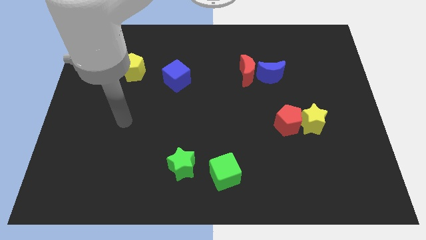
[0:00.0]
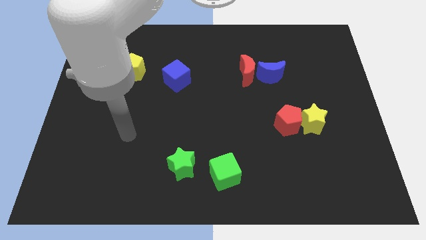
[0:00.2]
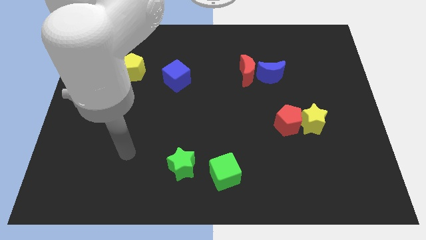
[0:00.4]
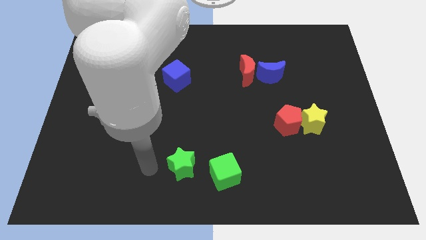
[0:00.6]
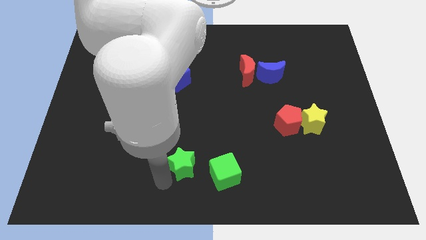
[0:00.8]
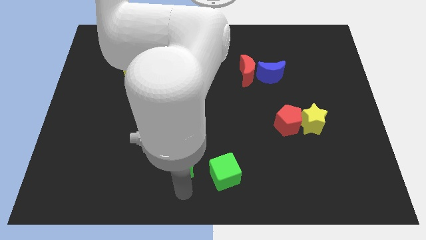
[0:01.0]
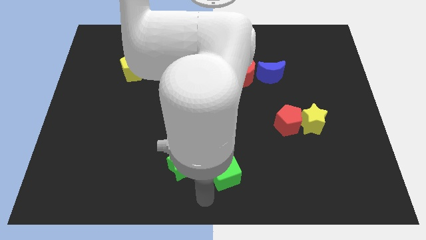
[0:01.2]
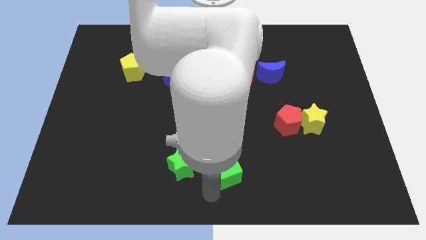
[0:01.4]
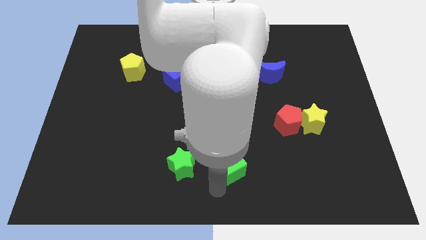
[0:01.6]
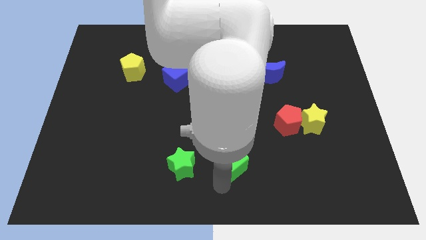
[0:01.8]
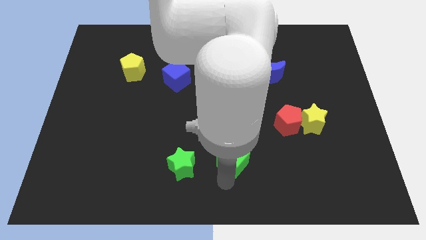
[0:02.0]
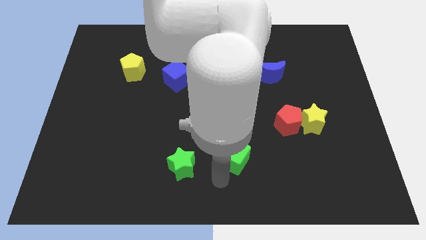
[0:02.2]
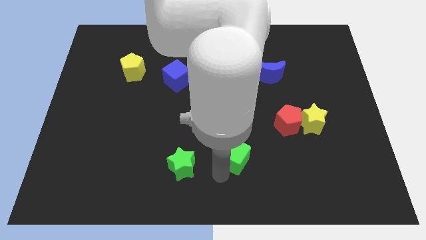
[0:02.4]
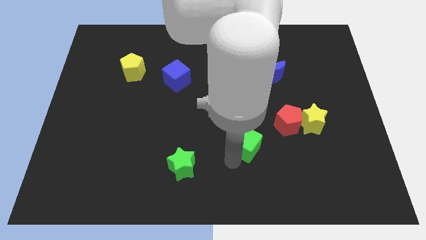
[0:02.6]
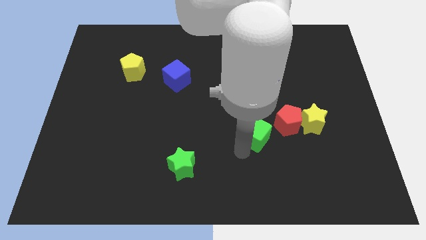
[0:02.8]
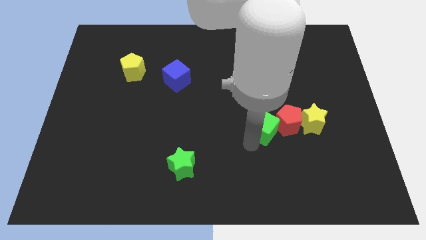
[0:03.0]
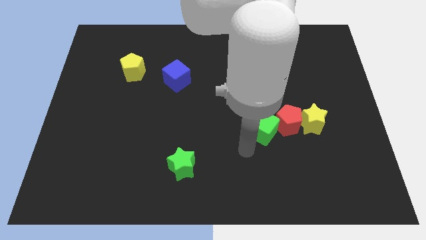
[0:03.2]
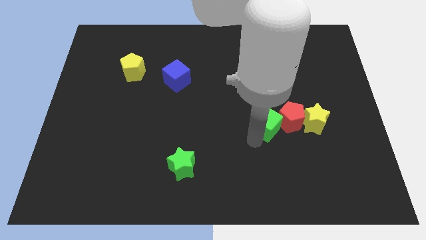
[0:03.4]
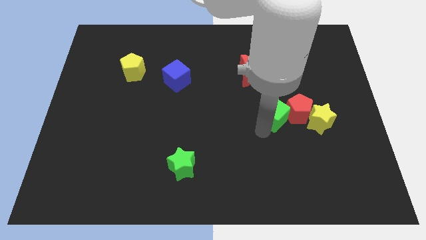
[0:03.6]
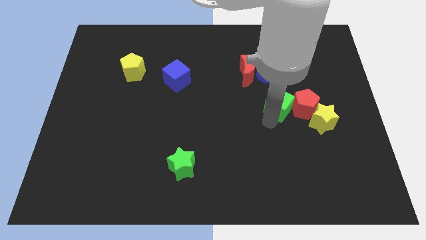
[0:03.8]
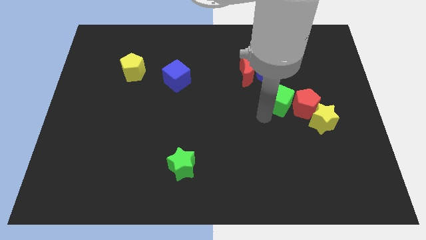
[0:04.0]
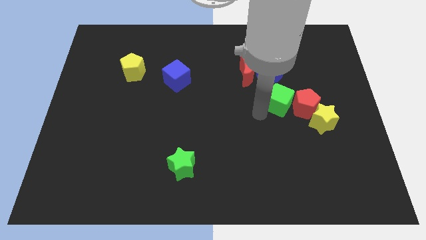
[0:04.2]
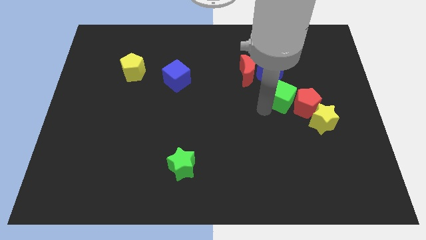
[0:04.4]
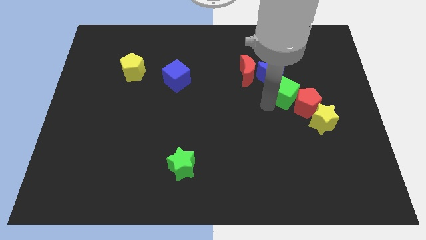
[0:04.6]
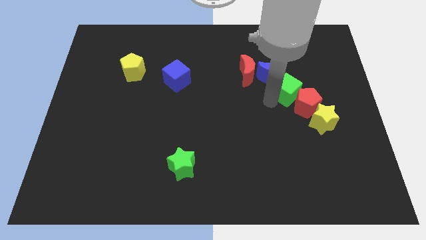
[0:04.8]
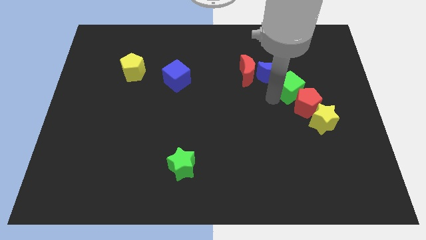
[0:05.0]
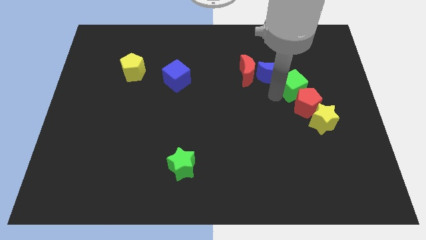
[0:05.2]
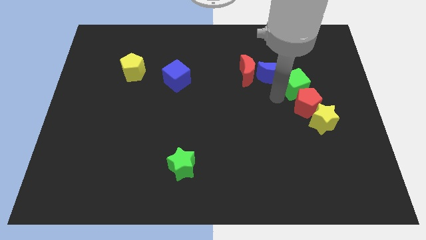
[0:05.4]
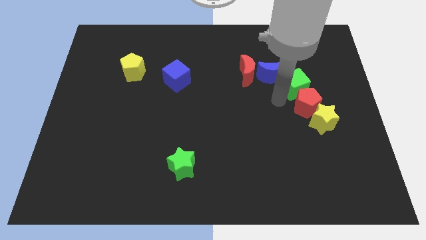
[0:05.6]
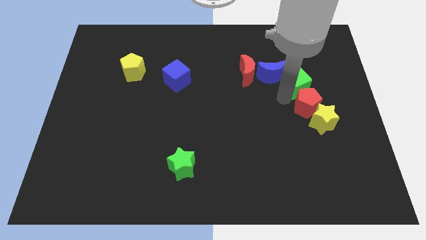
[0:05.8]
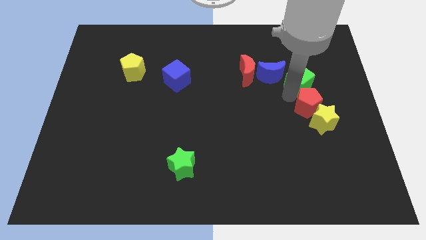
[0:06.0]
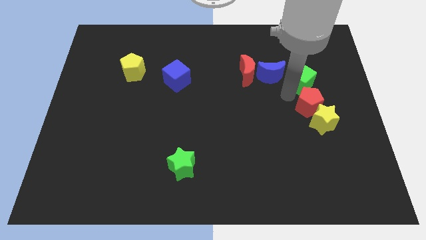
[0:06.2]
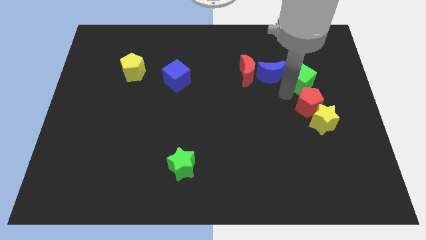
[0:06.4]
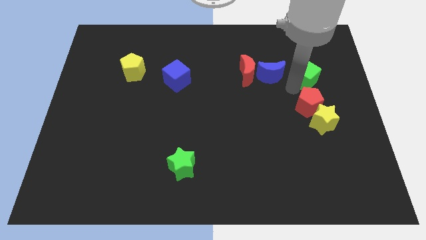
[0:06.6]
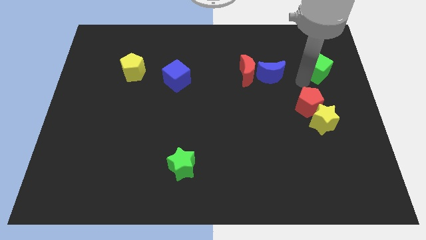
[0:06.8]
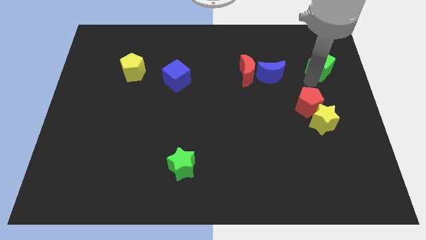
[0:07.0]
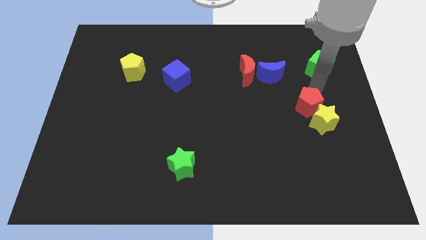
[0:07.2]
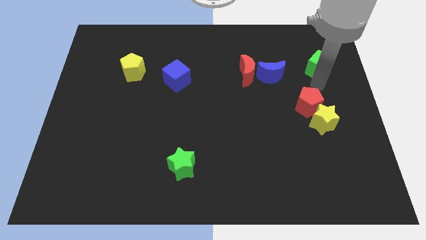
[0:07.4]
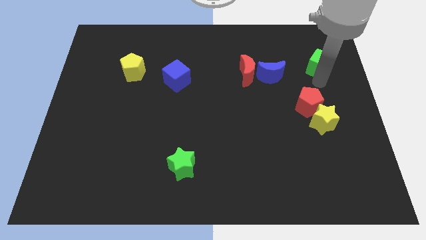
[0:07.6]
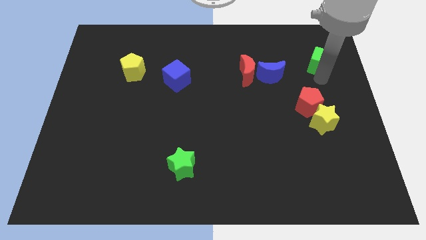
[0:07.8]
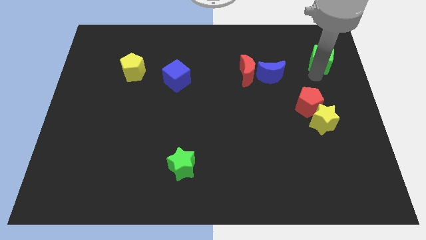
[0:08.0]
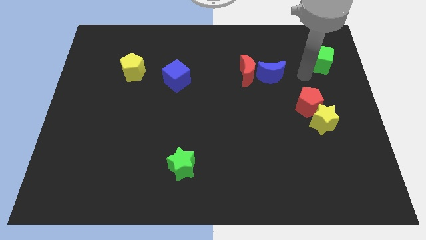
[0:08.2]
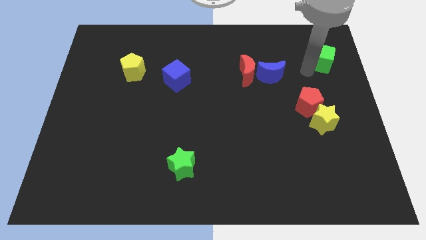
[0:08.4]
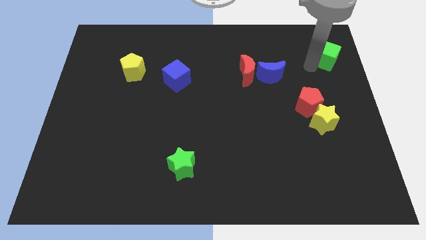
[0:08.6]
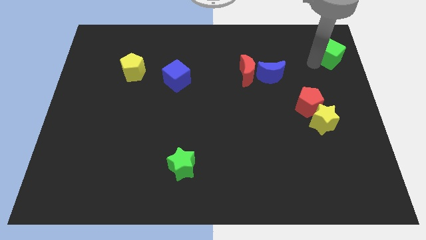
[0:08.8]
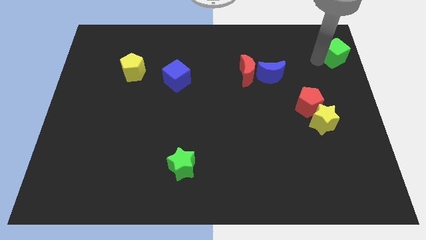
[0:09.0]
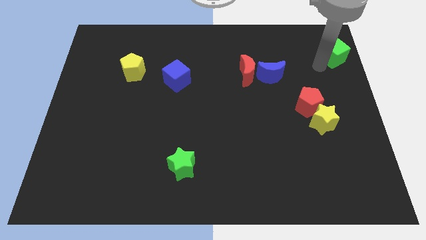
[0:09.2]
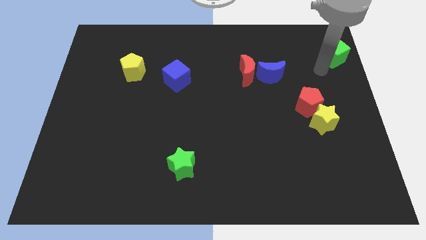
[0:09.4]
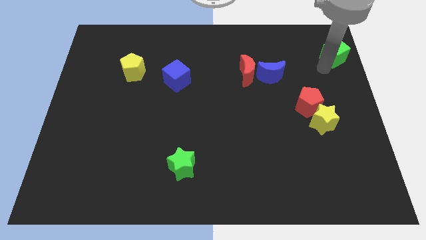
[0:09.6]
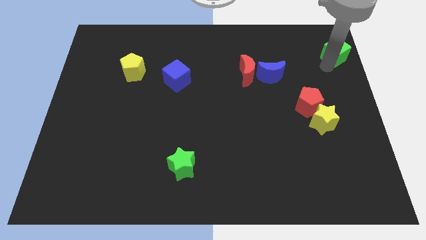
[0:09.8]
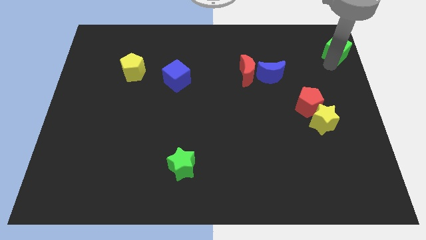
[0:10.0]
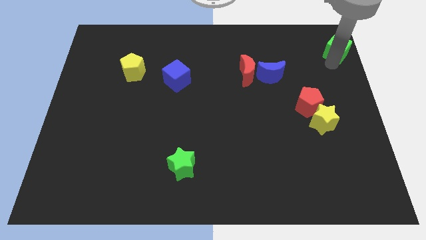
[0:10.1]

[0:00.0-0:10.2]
slide the green cube to the top right corner
